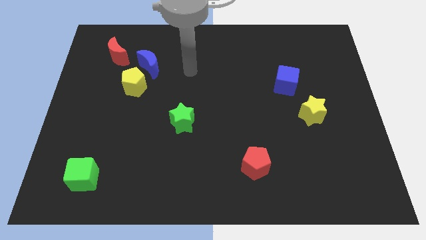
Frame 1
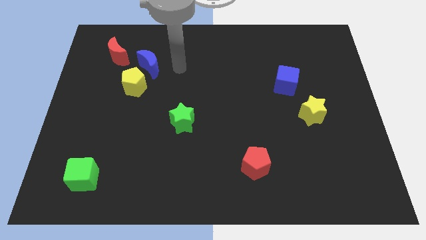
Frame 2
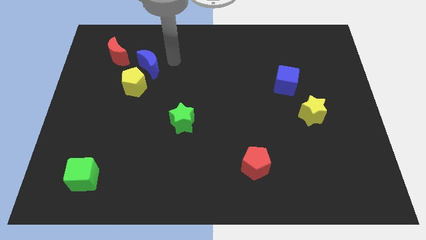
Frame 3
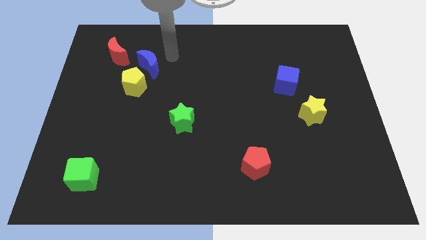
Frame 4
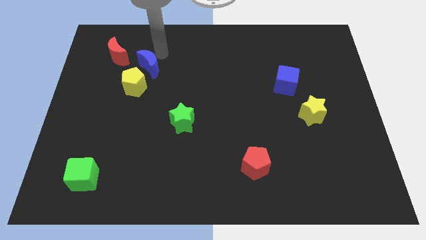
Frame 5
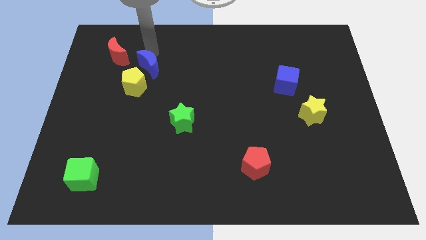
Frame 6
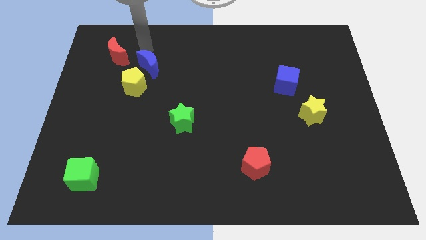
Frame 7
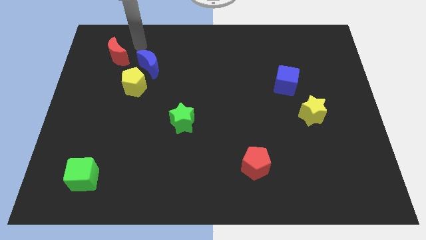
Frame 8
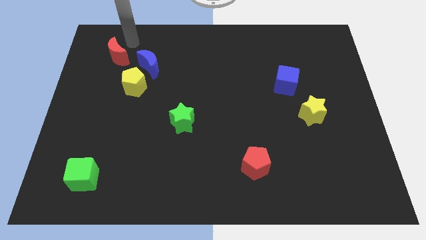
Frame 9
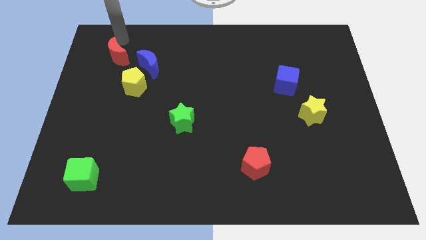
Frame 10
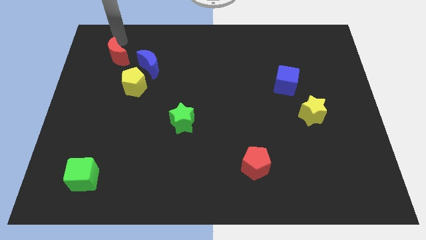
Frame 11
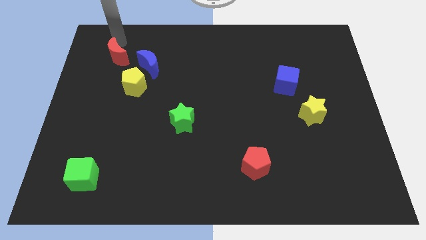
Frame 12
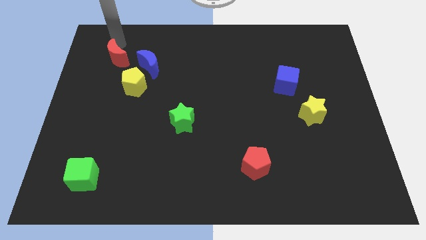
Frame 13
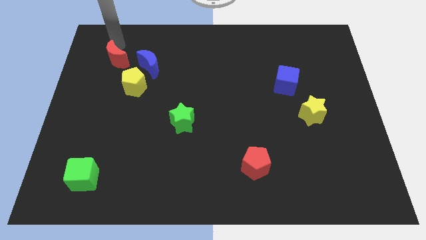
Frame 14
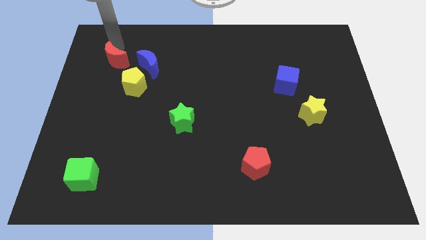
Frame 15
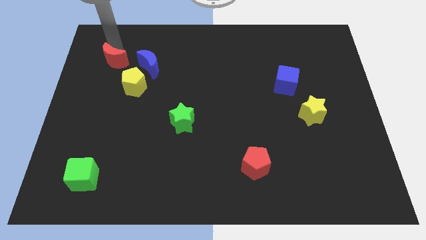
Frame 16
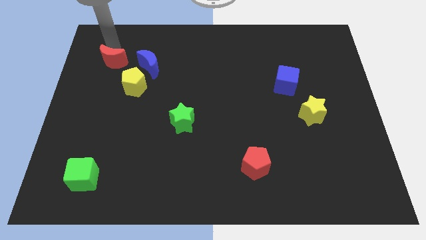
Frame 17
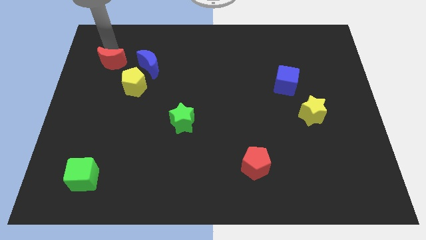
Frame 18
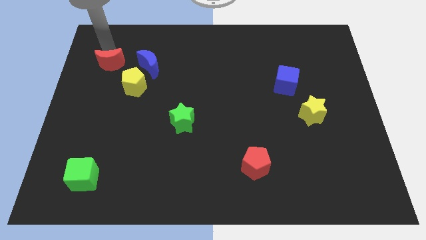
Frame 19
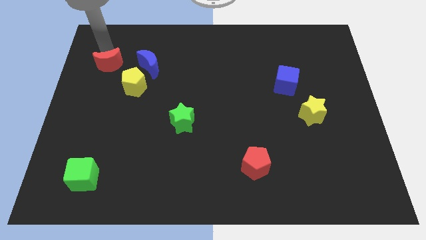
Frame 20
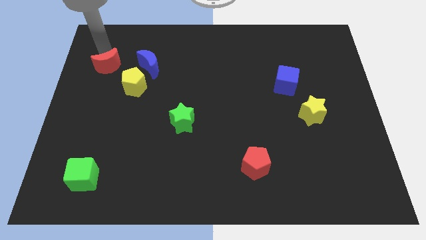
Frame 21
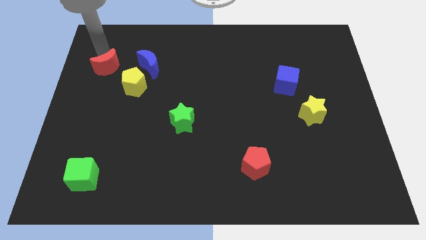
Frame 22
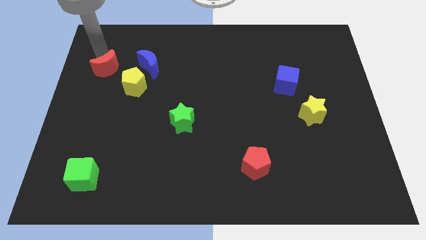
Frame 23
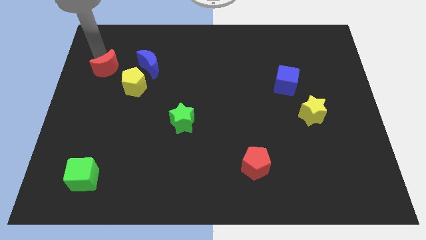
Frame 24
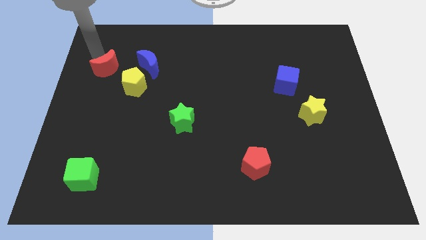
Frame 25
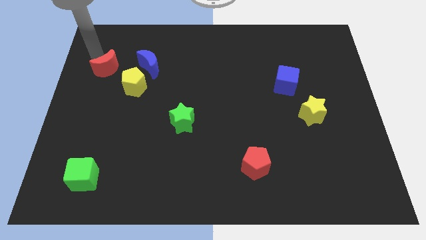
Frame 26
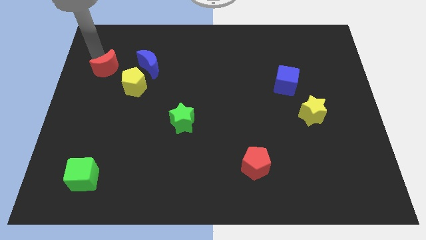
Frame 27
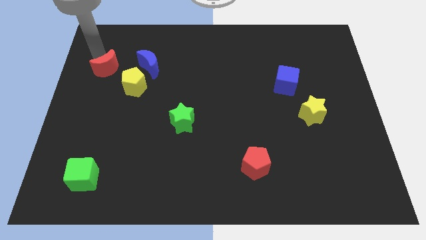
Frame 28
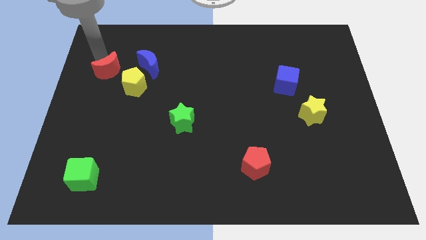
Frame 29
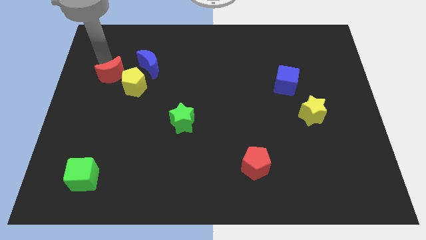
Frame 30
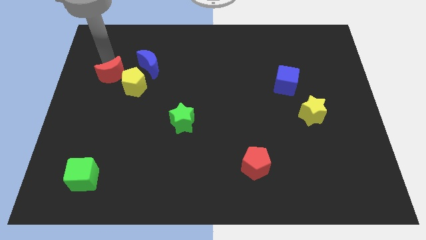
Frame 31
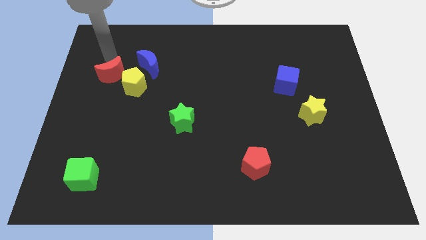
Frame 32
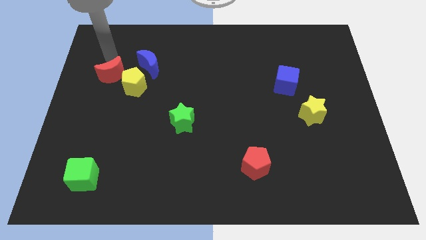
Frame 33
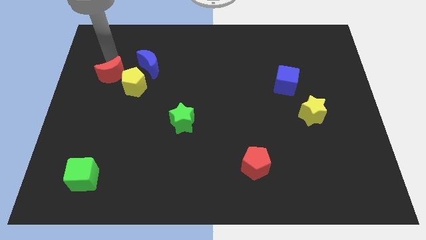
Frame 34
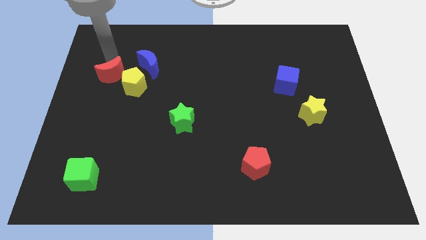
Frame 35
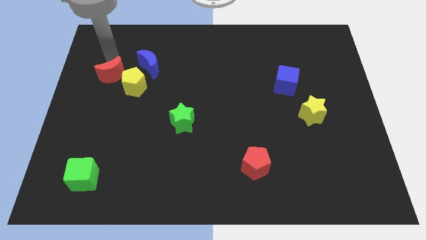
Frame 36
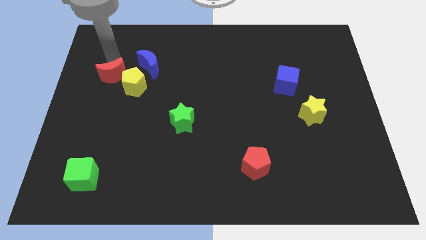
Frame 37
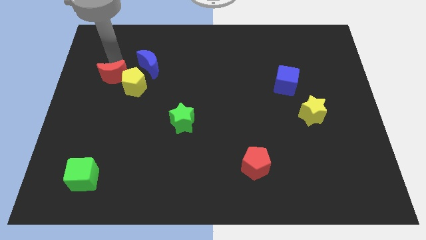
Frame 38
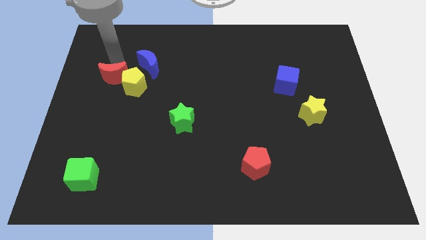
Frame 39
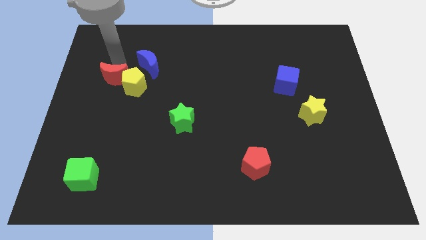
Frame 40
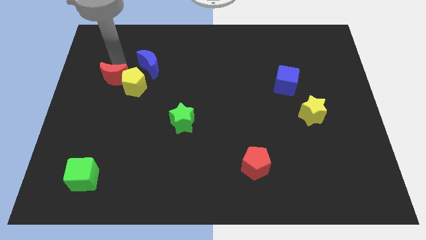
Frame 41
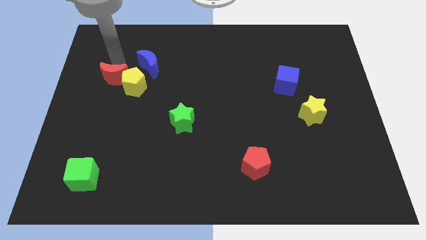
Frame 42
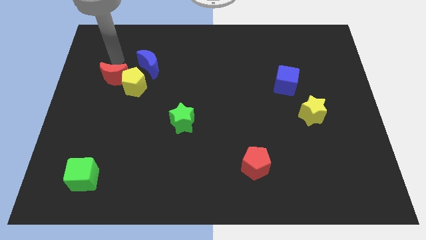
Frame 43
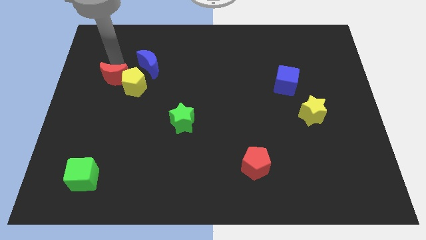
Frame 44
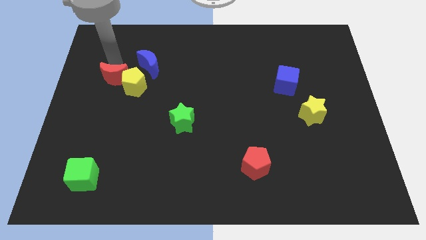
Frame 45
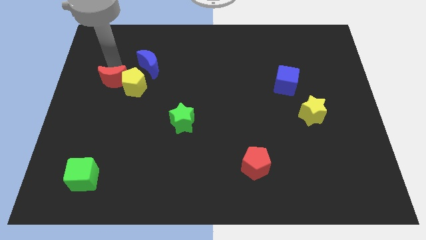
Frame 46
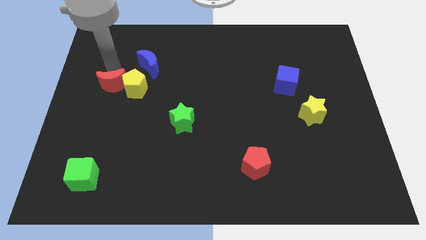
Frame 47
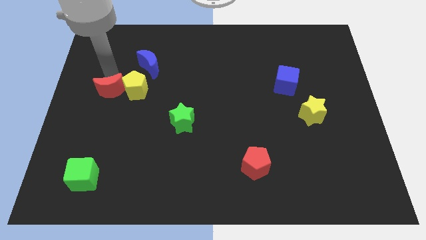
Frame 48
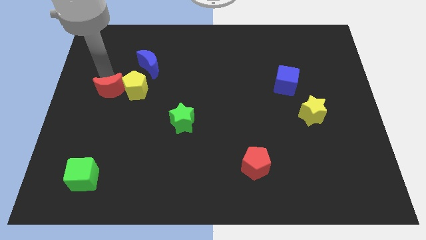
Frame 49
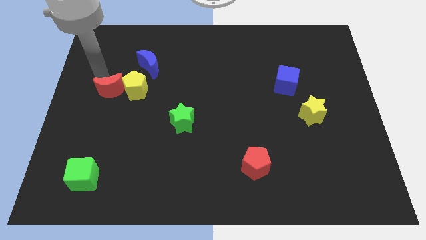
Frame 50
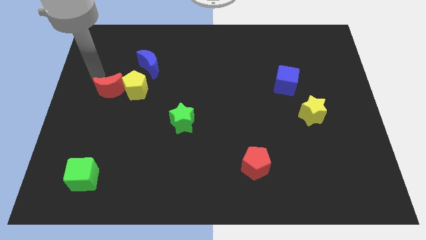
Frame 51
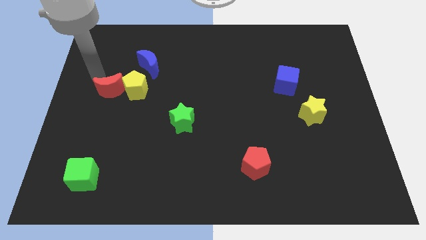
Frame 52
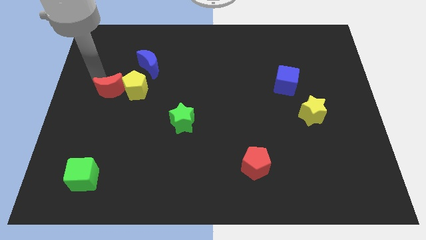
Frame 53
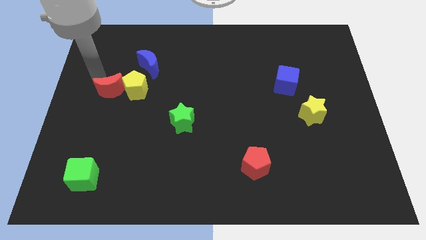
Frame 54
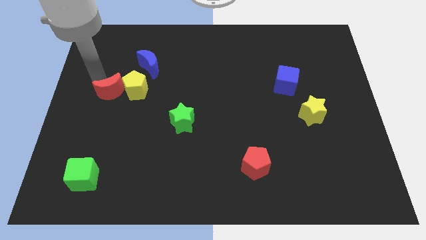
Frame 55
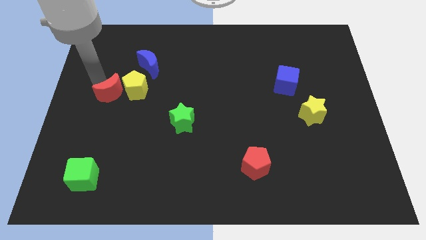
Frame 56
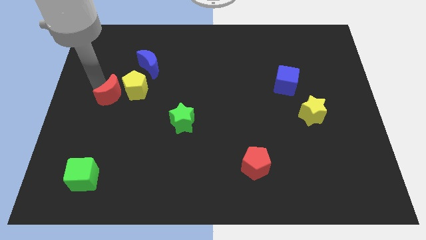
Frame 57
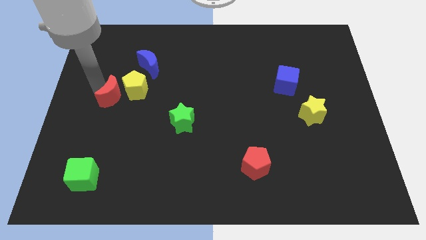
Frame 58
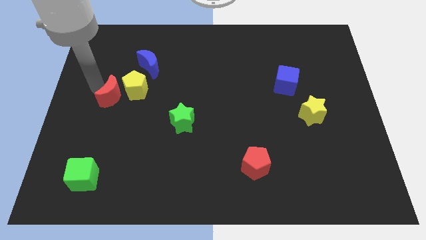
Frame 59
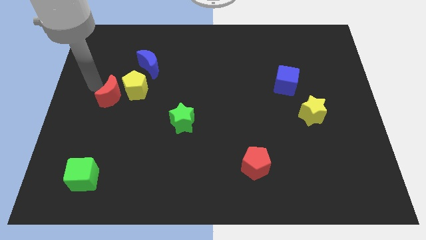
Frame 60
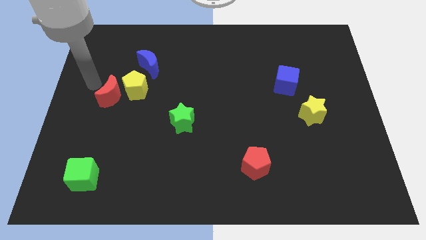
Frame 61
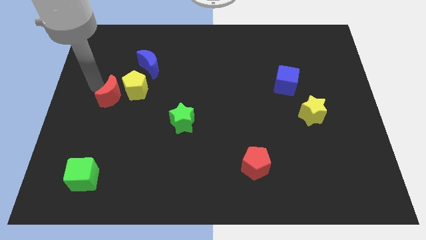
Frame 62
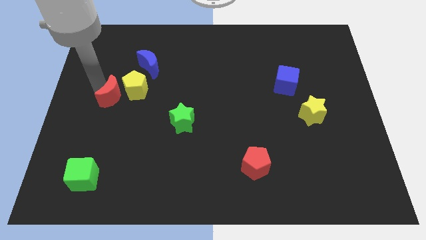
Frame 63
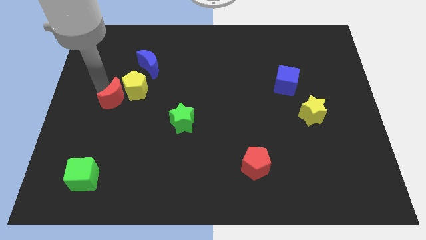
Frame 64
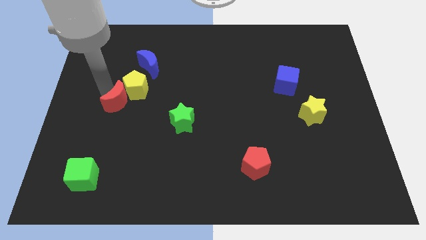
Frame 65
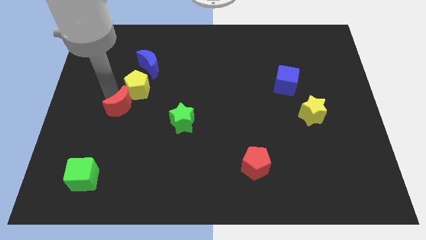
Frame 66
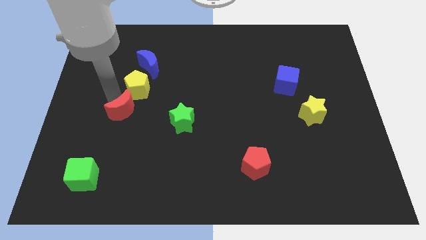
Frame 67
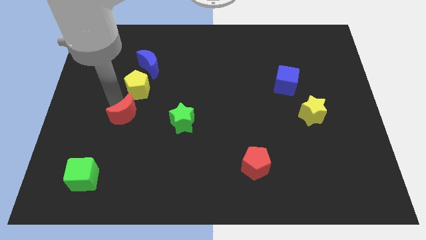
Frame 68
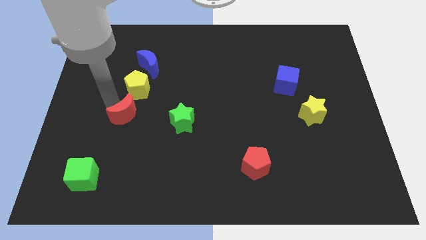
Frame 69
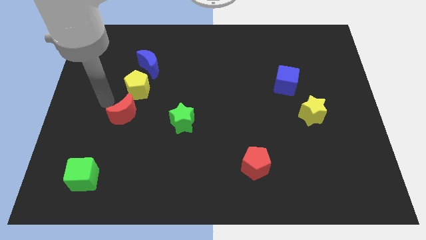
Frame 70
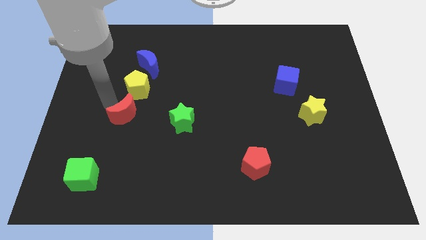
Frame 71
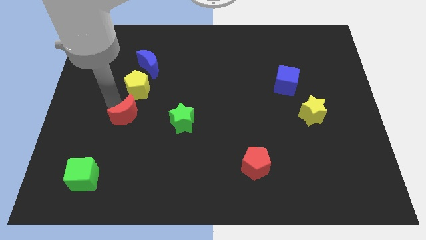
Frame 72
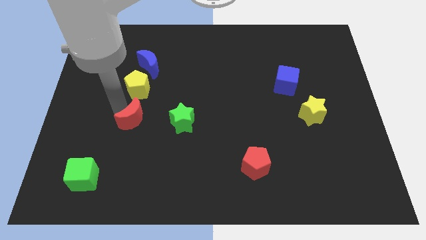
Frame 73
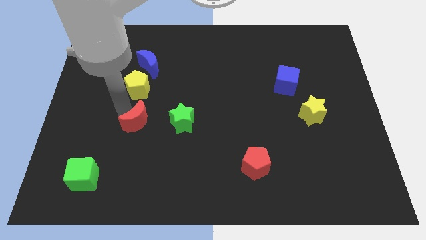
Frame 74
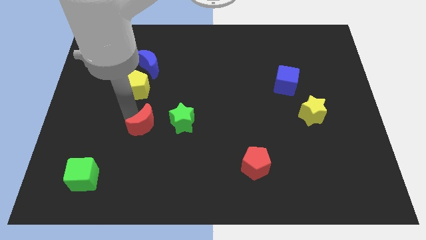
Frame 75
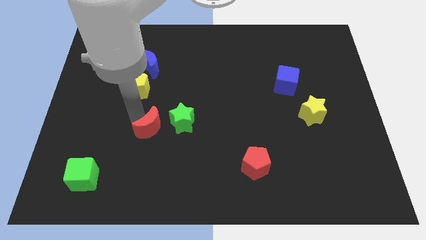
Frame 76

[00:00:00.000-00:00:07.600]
put the red moon to the bottom left side of the green star
